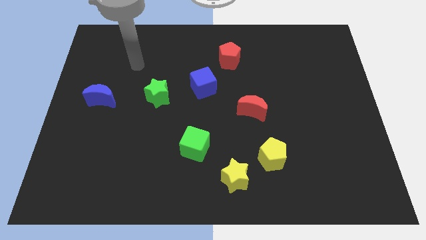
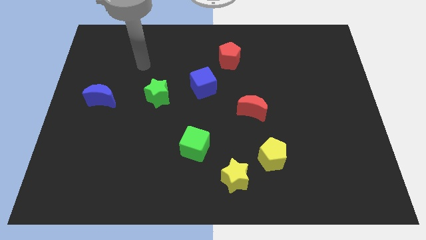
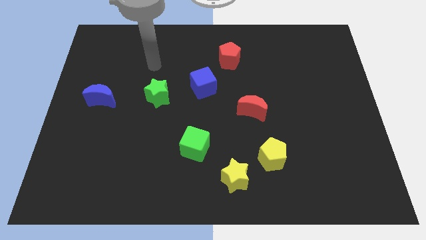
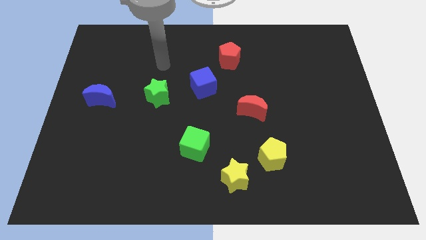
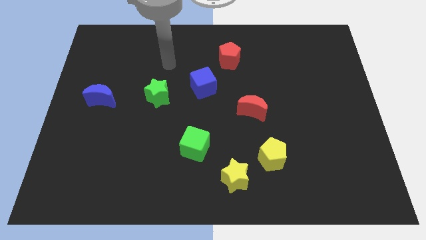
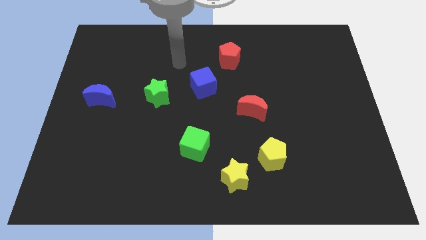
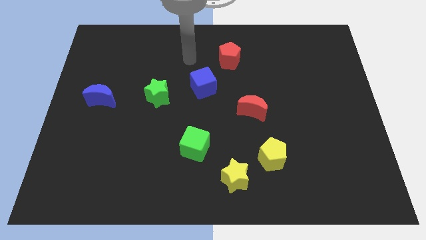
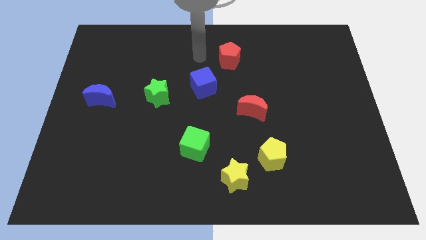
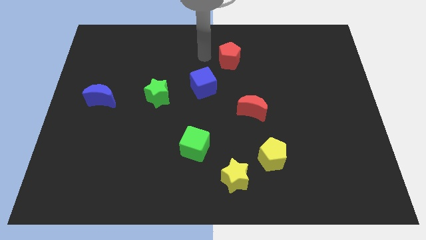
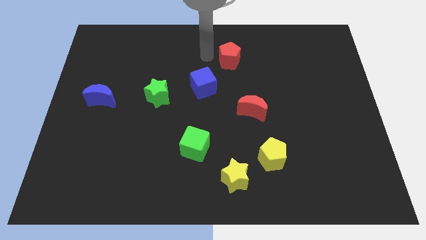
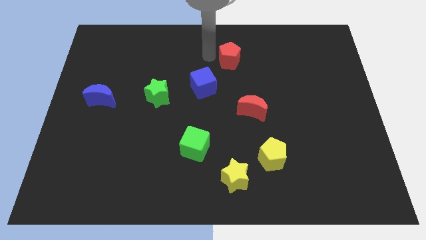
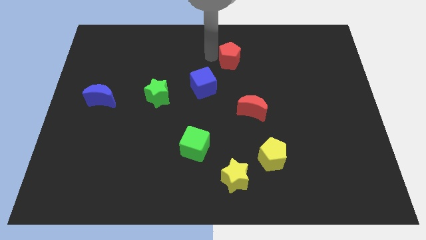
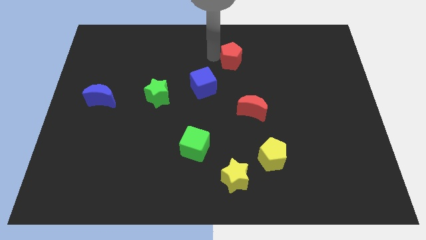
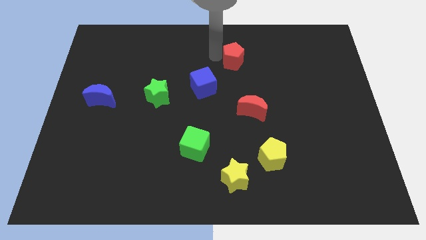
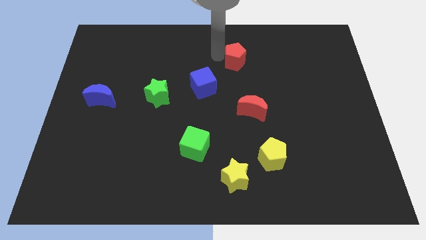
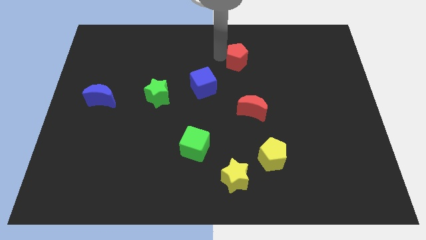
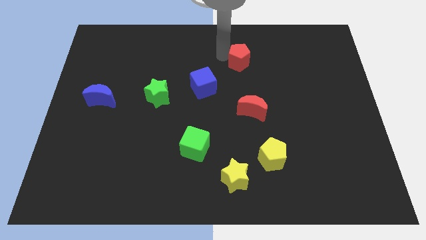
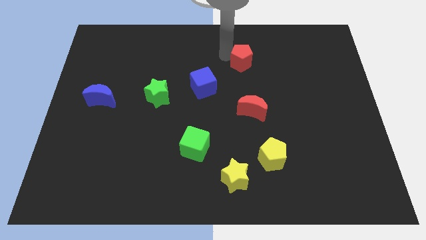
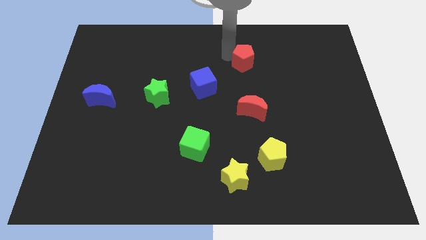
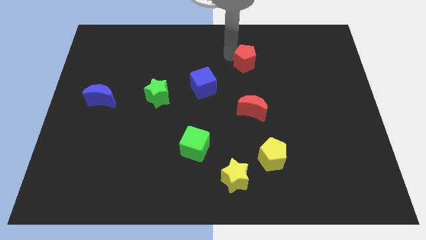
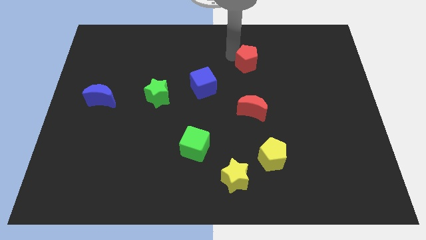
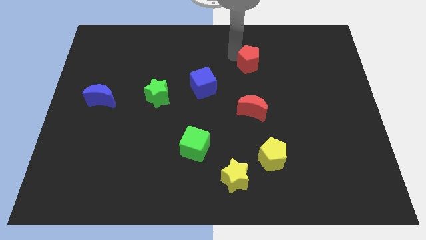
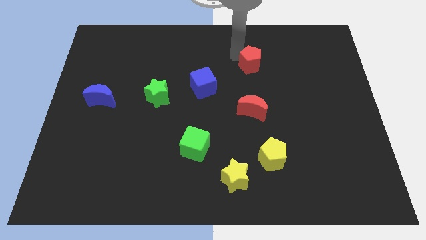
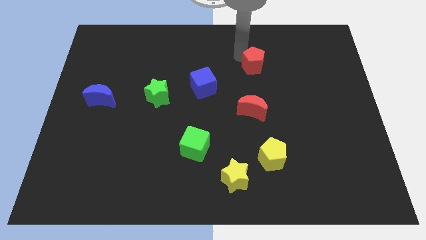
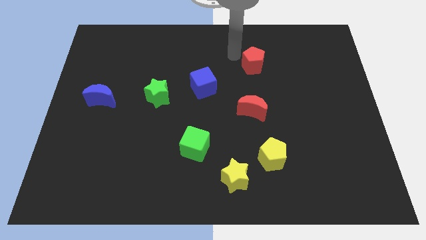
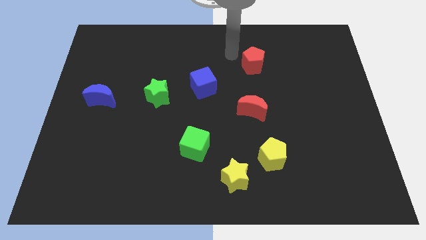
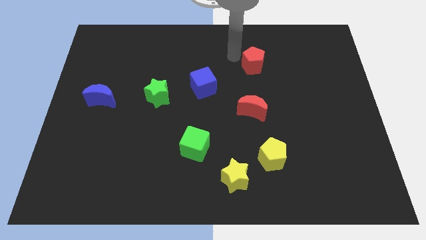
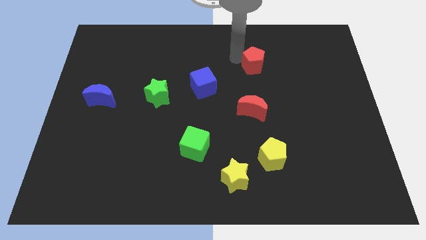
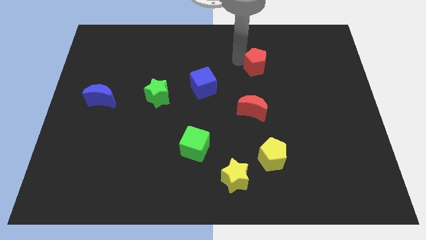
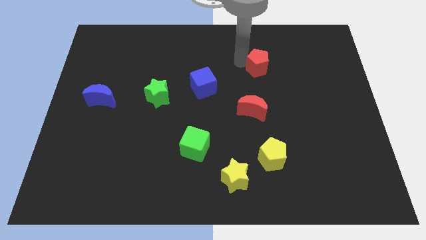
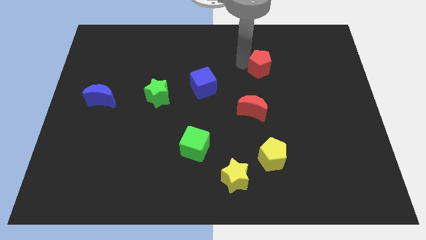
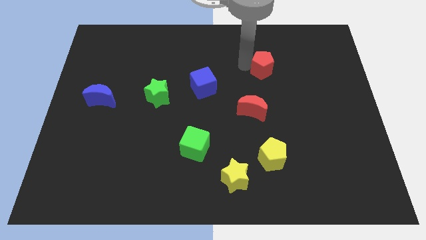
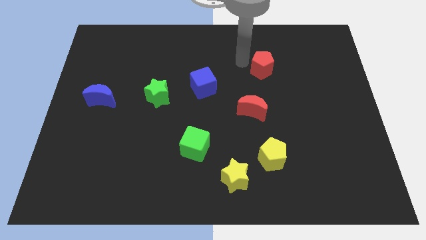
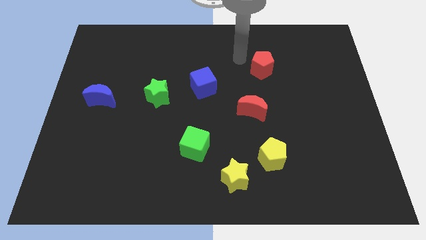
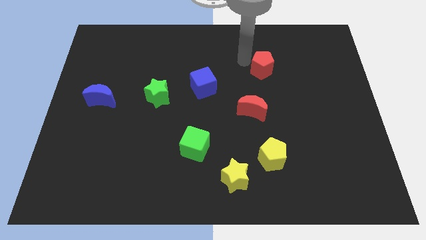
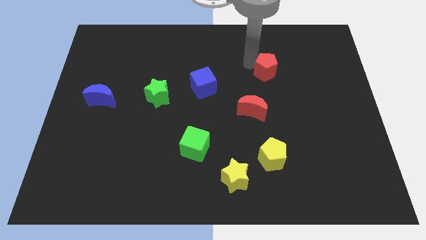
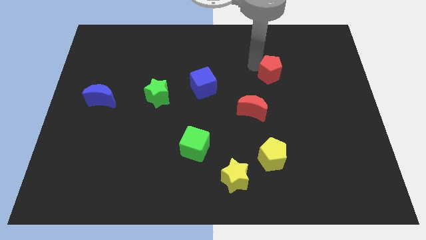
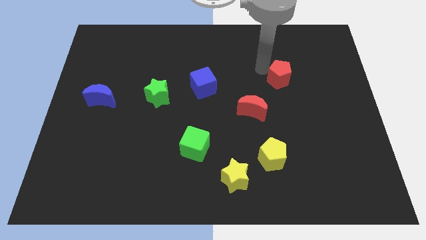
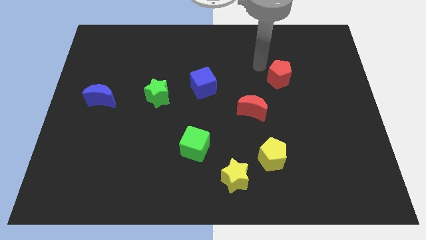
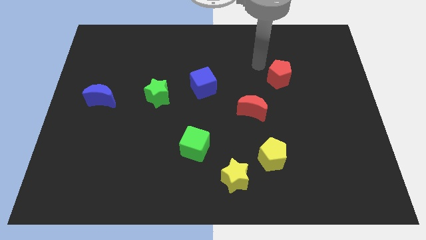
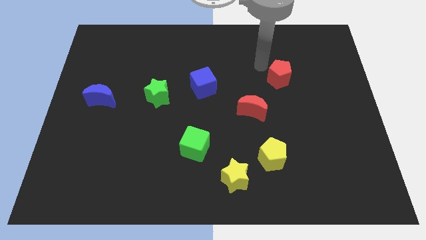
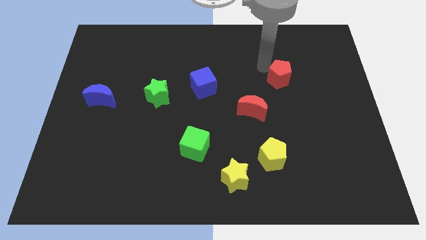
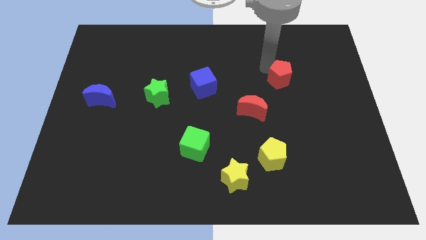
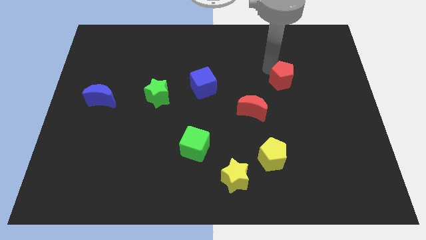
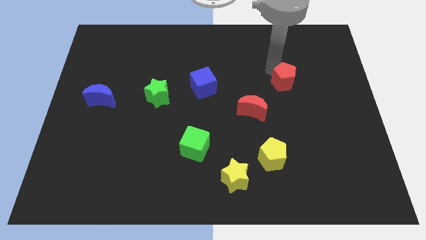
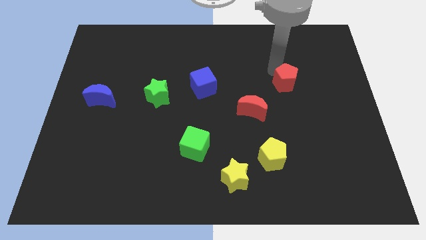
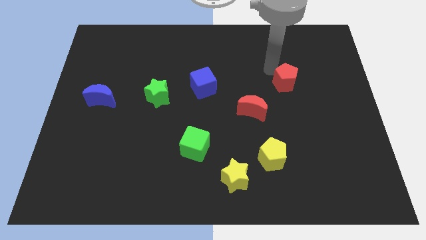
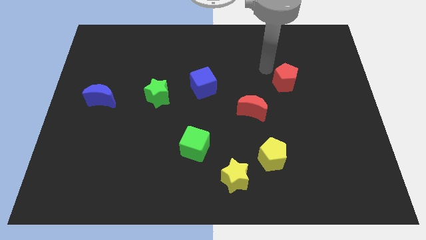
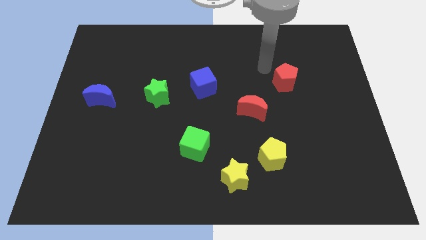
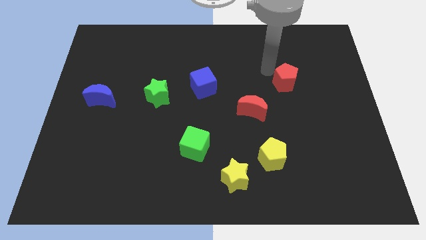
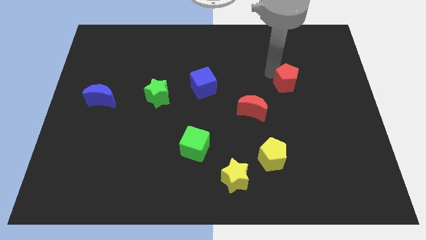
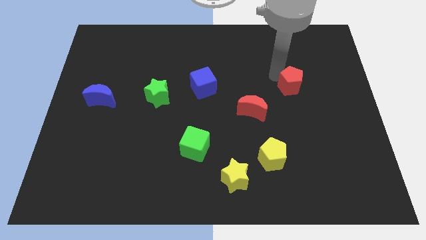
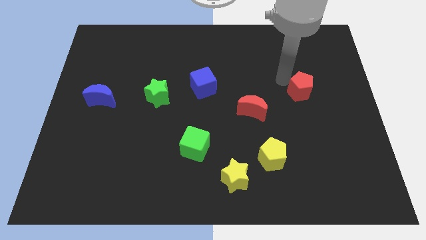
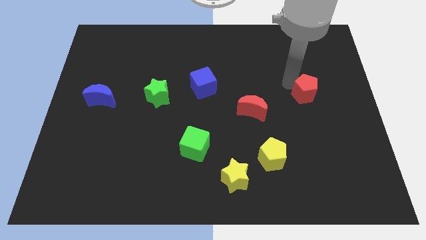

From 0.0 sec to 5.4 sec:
push the red pentagon down and right diagonally

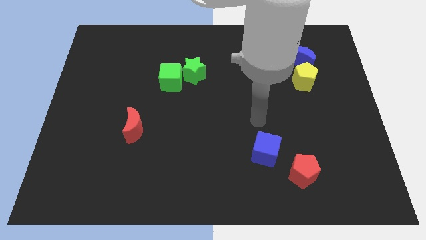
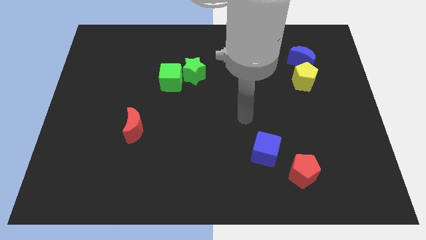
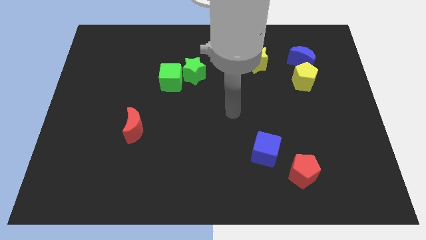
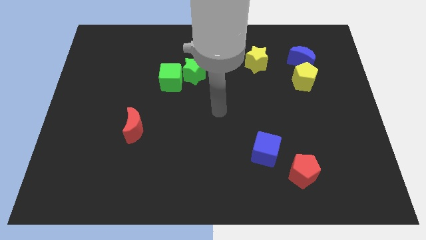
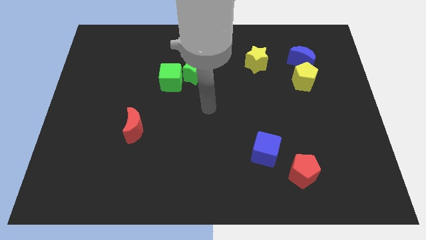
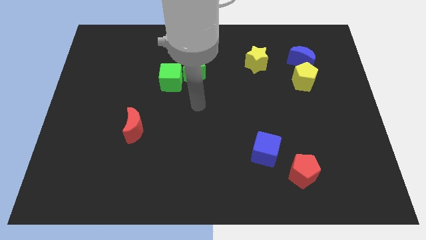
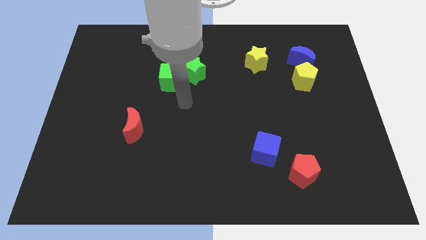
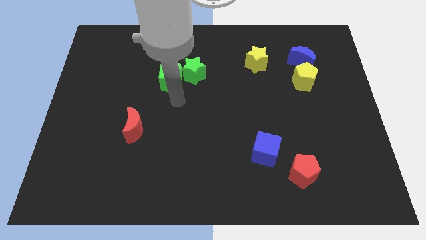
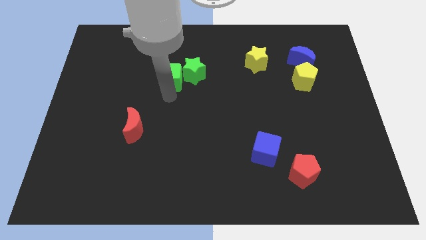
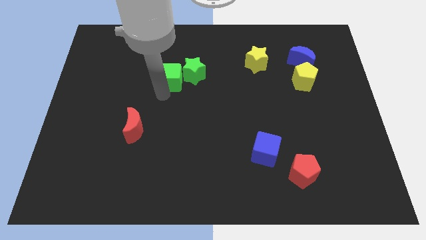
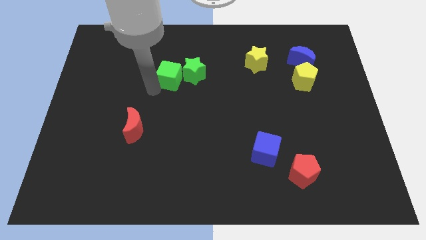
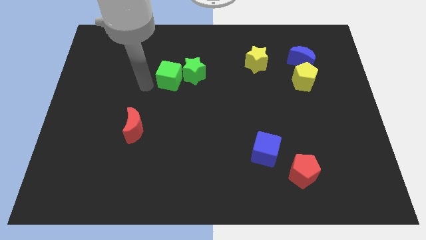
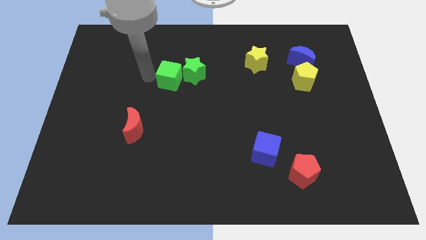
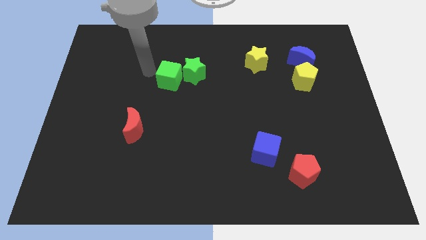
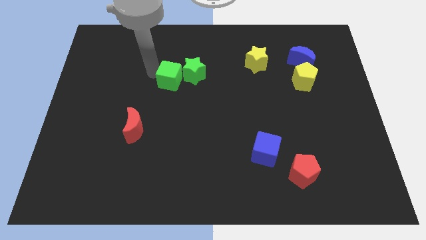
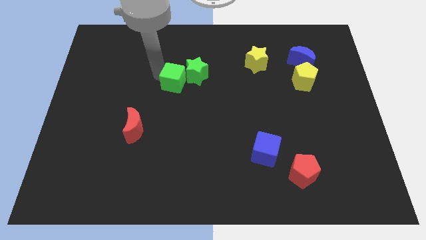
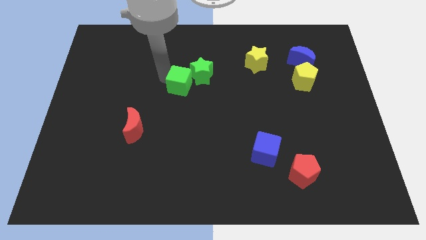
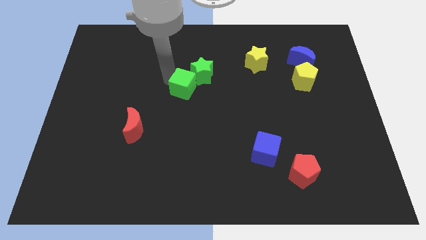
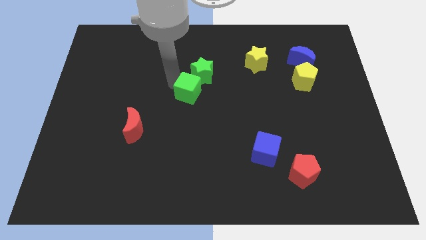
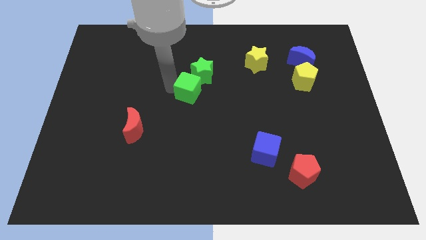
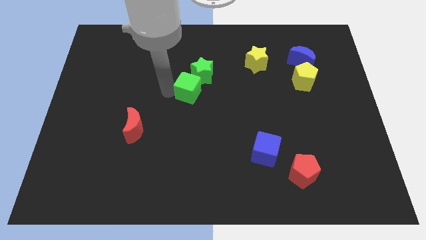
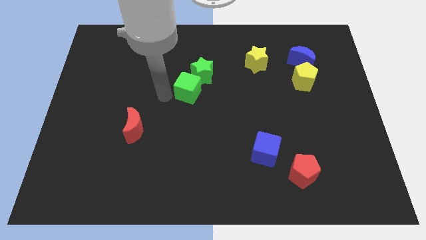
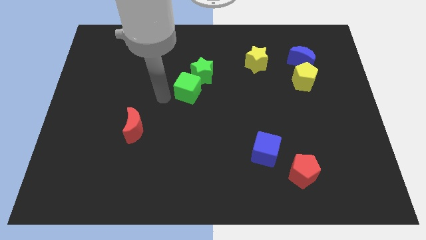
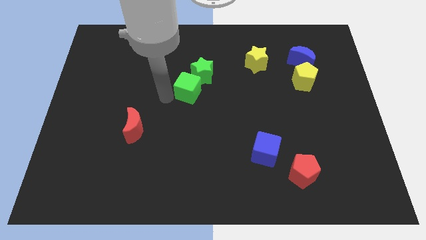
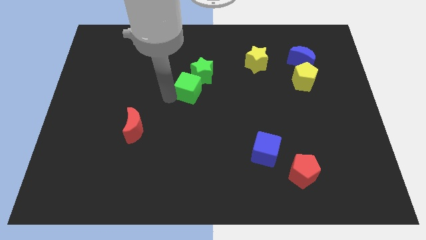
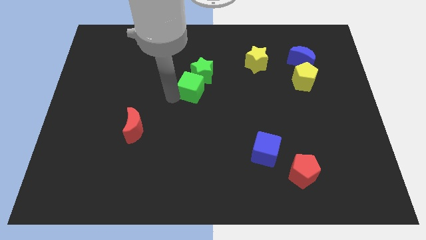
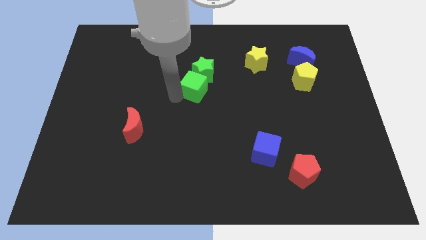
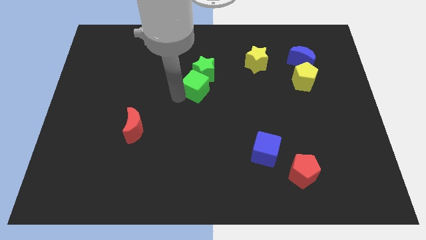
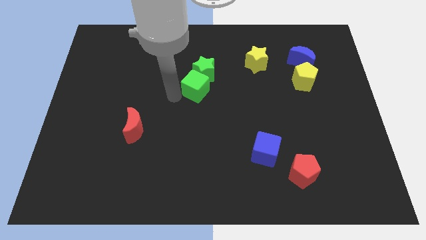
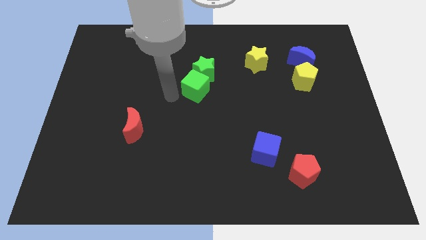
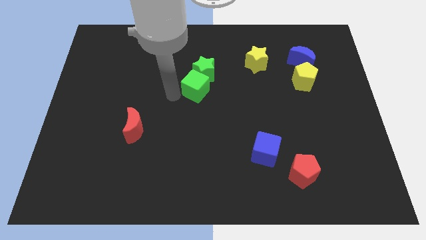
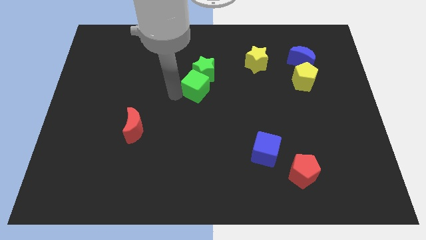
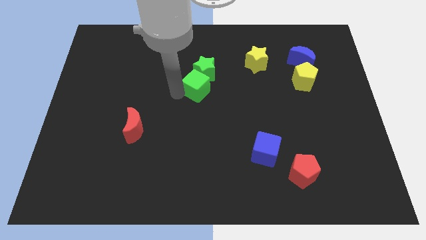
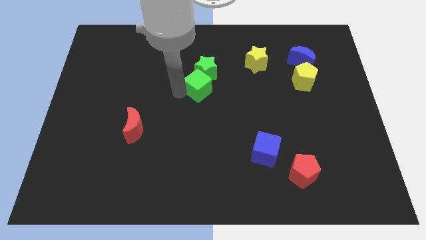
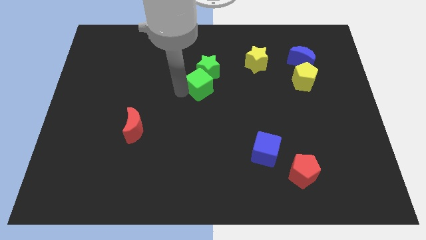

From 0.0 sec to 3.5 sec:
move the green cube to the right somewhat
